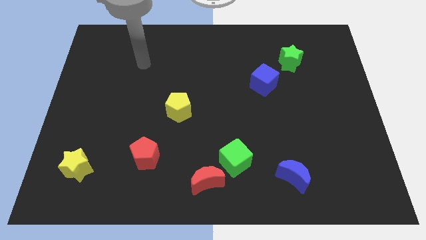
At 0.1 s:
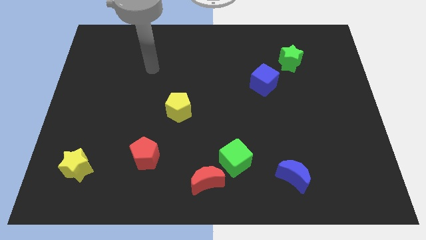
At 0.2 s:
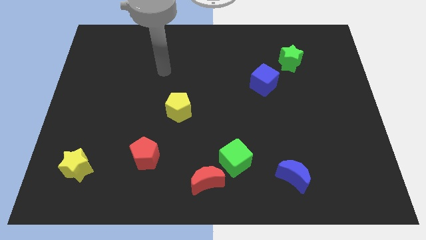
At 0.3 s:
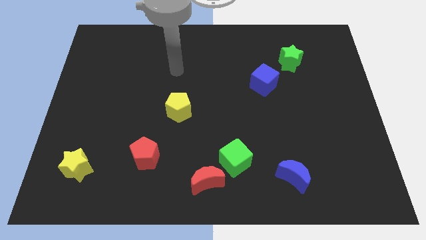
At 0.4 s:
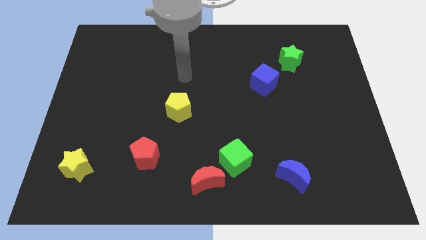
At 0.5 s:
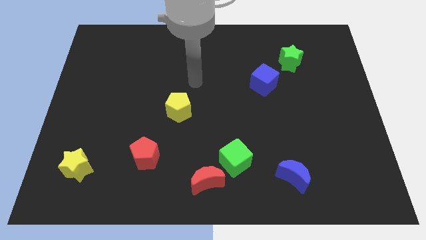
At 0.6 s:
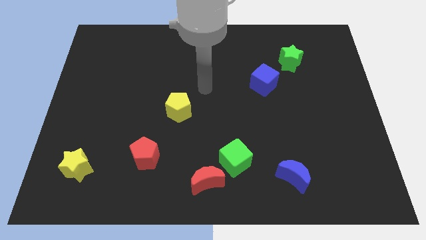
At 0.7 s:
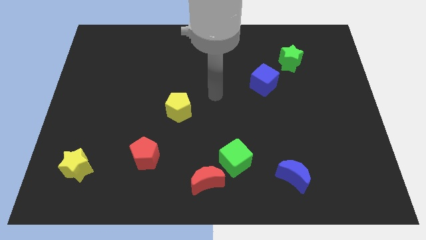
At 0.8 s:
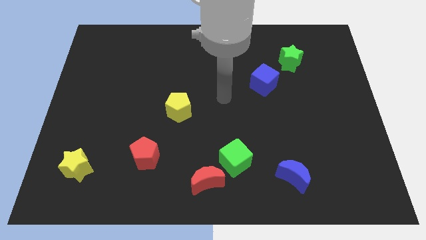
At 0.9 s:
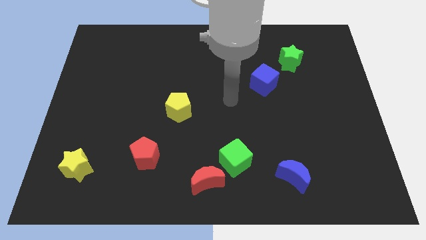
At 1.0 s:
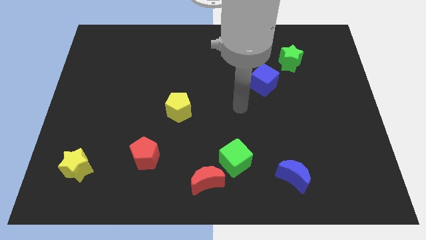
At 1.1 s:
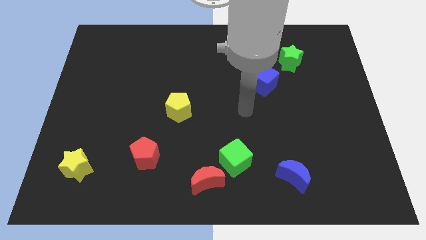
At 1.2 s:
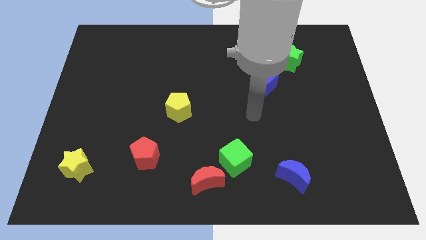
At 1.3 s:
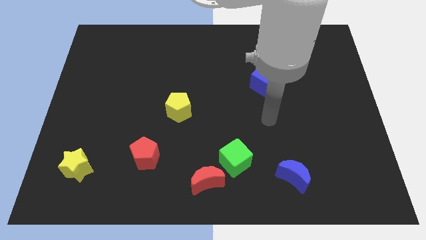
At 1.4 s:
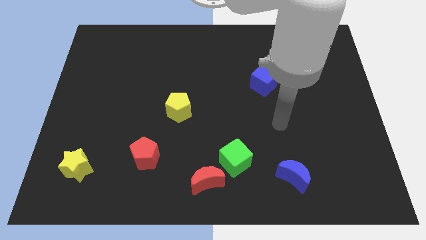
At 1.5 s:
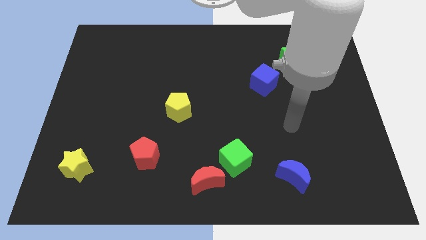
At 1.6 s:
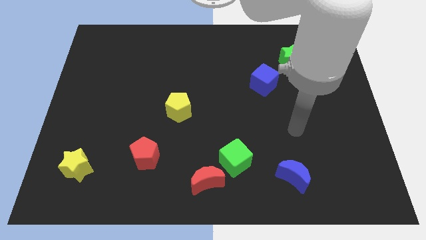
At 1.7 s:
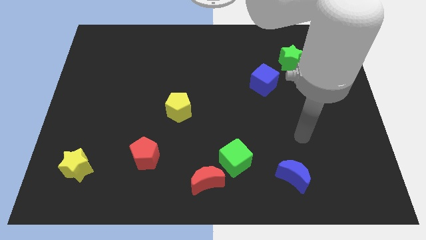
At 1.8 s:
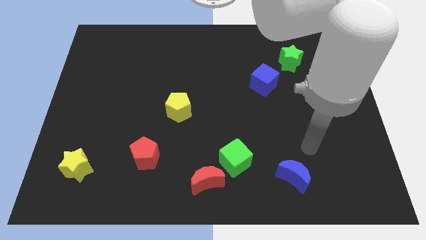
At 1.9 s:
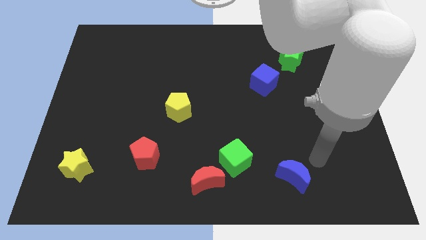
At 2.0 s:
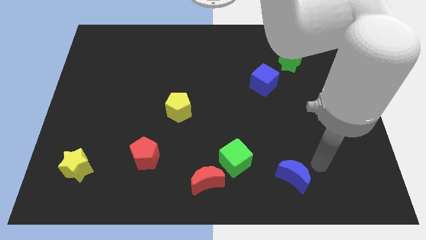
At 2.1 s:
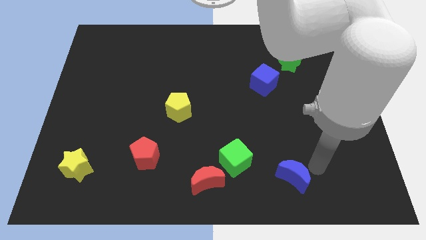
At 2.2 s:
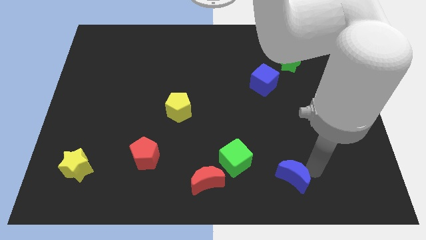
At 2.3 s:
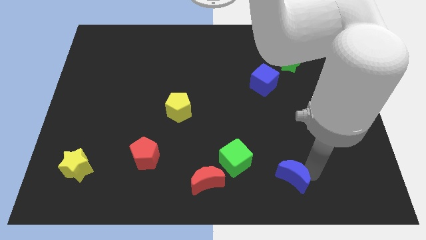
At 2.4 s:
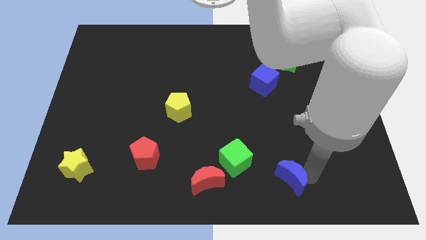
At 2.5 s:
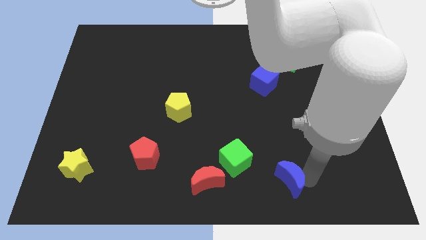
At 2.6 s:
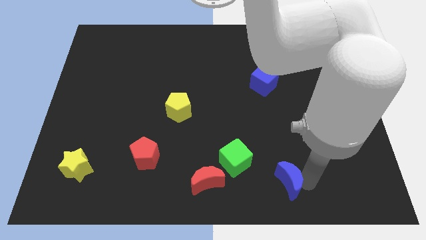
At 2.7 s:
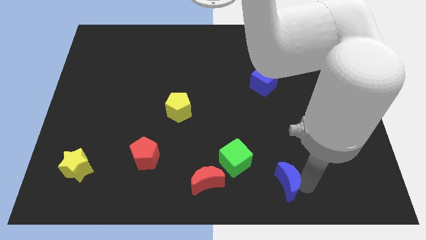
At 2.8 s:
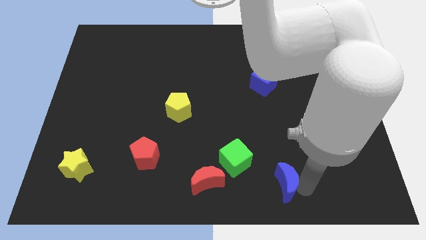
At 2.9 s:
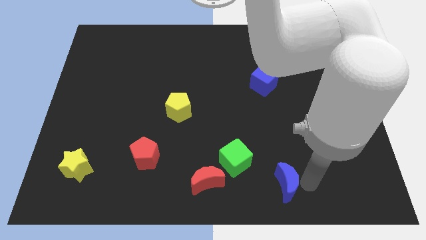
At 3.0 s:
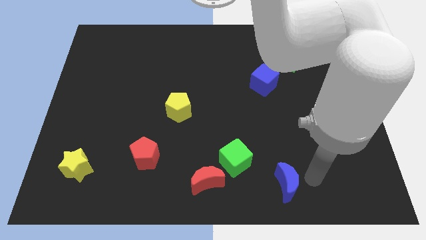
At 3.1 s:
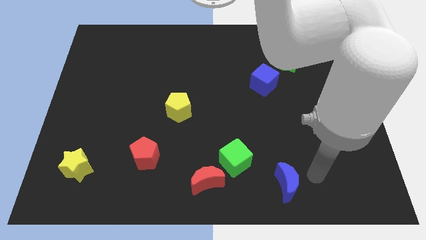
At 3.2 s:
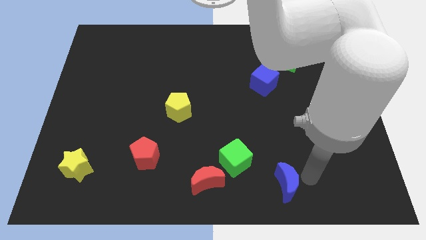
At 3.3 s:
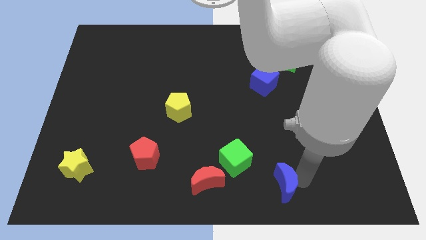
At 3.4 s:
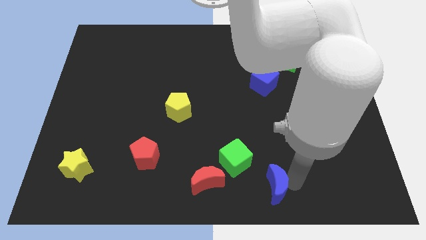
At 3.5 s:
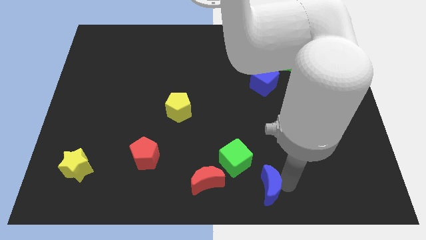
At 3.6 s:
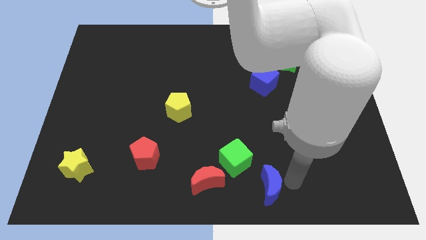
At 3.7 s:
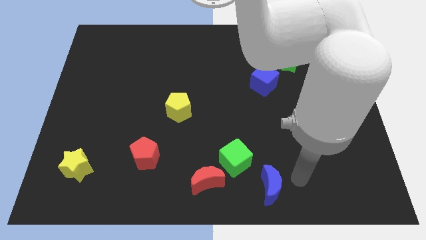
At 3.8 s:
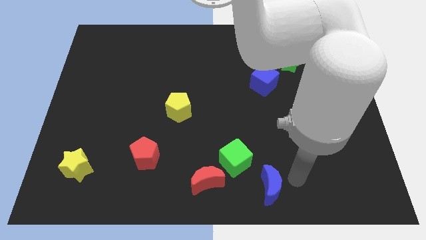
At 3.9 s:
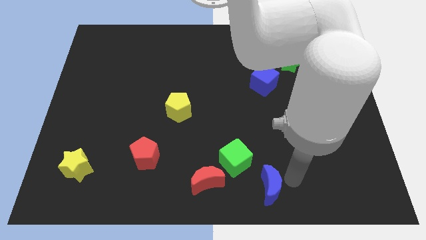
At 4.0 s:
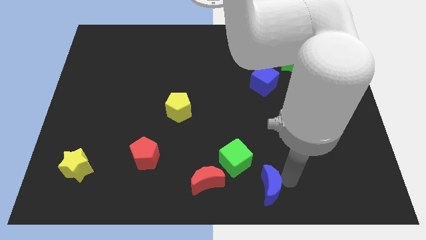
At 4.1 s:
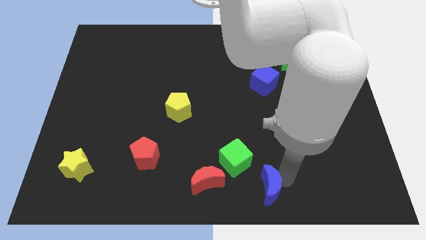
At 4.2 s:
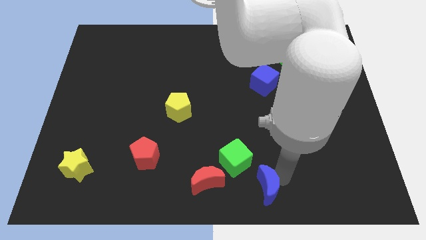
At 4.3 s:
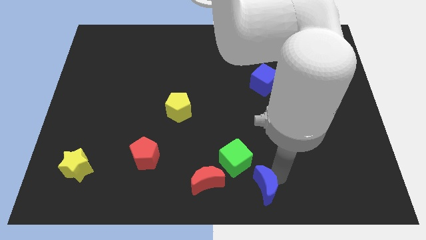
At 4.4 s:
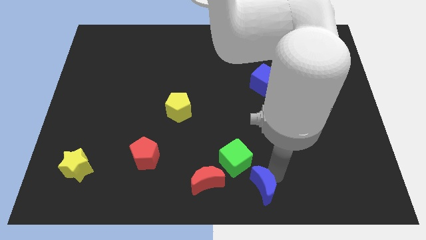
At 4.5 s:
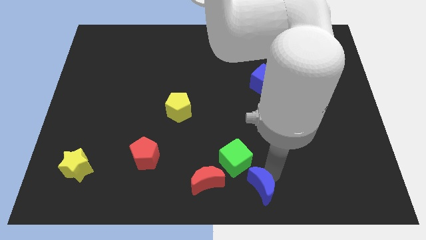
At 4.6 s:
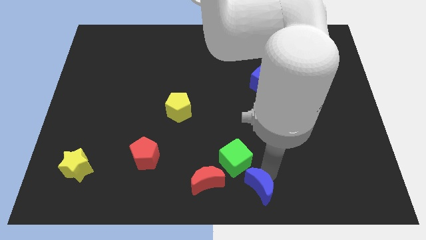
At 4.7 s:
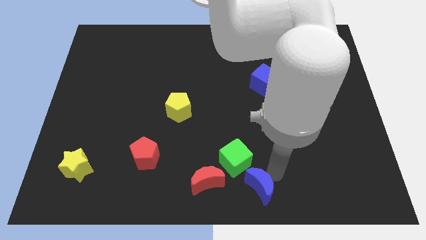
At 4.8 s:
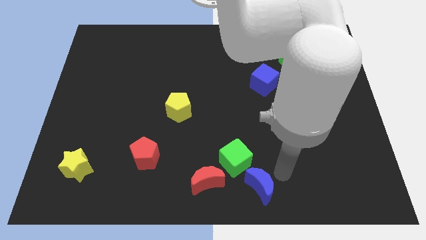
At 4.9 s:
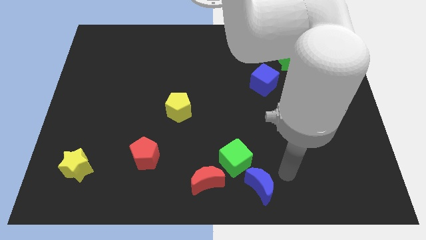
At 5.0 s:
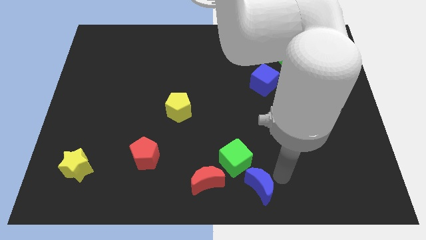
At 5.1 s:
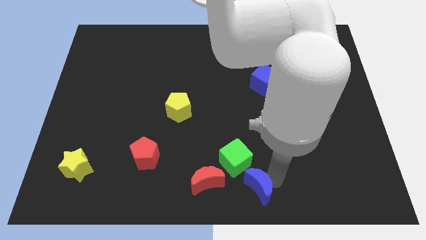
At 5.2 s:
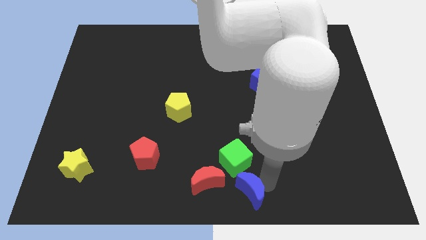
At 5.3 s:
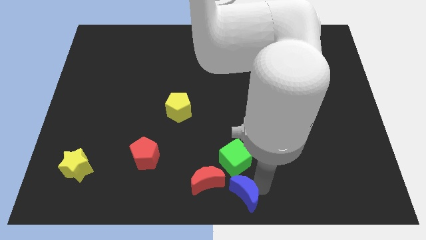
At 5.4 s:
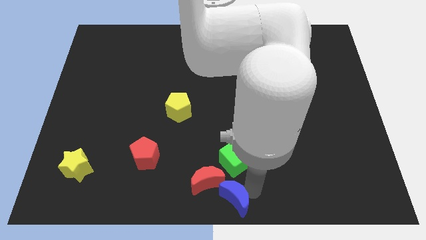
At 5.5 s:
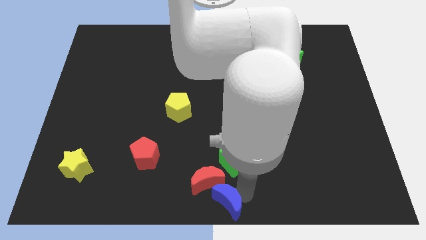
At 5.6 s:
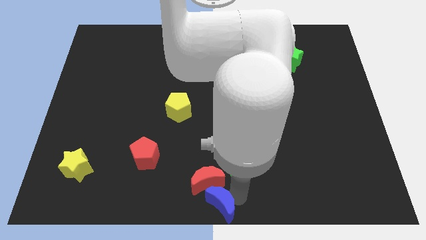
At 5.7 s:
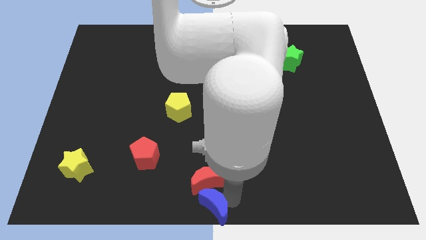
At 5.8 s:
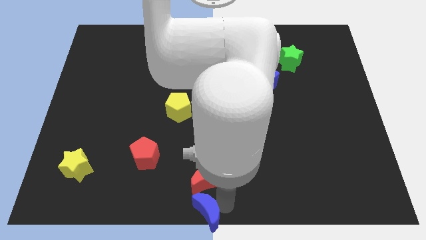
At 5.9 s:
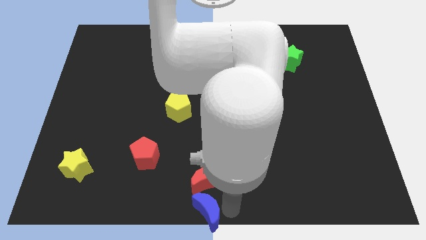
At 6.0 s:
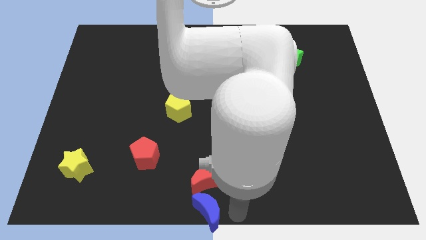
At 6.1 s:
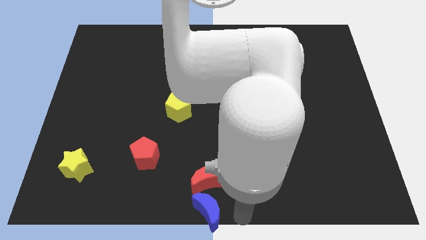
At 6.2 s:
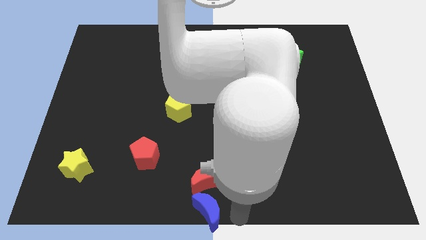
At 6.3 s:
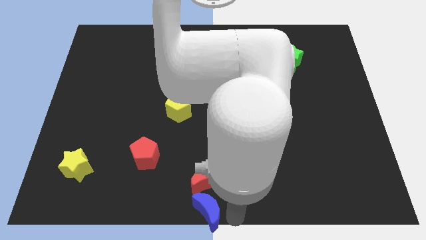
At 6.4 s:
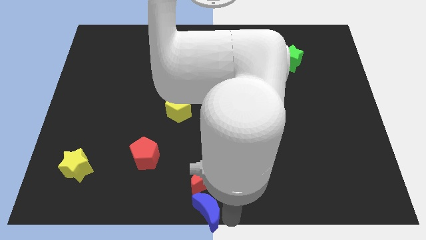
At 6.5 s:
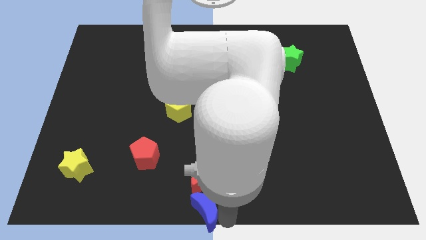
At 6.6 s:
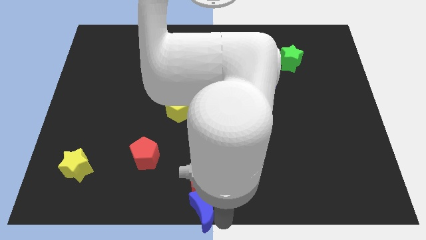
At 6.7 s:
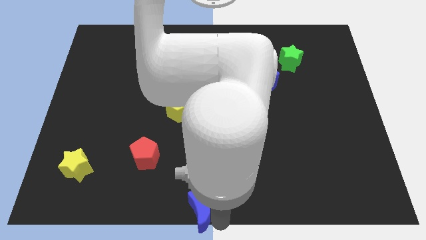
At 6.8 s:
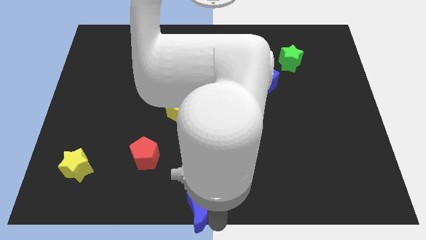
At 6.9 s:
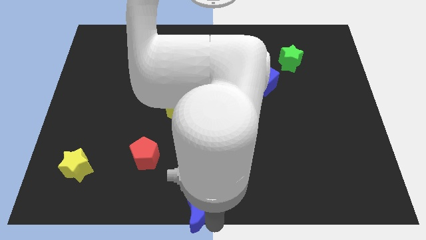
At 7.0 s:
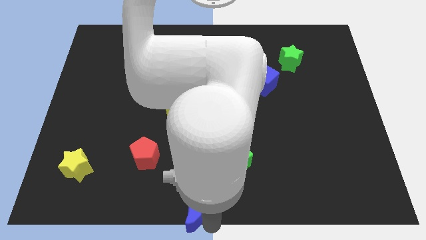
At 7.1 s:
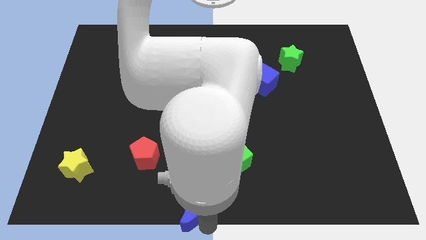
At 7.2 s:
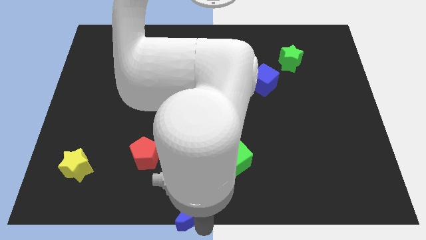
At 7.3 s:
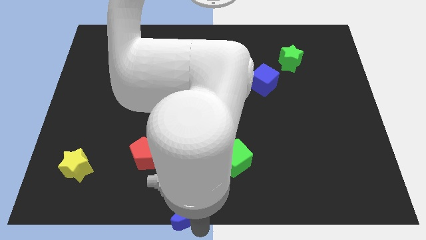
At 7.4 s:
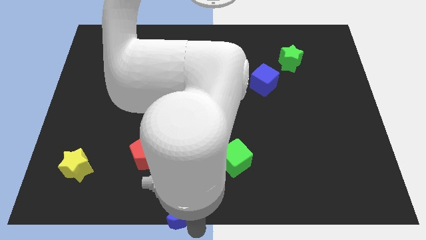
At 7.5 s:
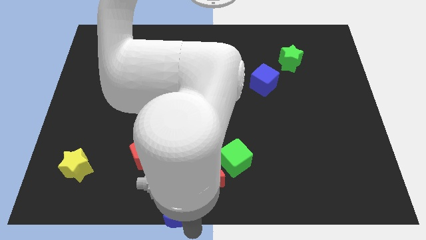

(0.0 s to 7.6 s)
push the blue moon to the left

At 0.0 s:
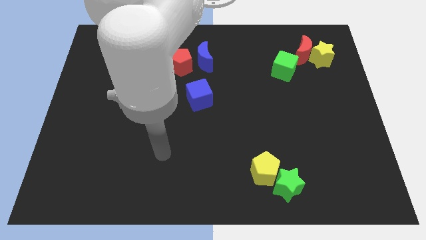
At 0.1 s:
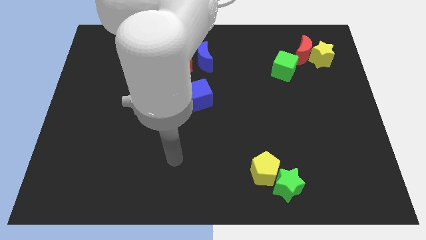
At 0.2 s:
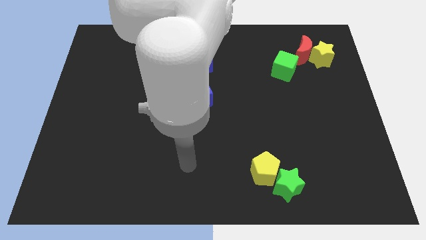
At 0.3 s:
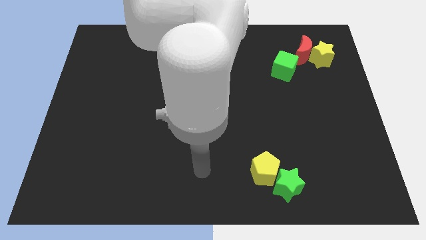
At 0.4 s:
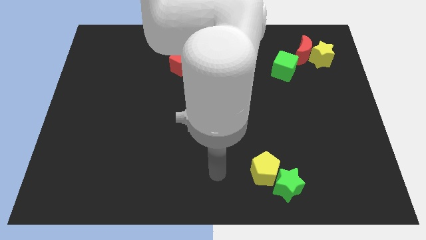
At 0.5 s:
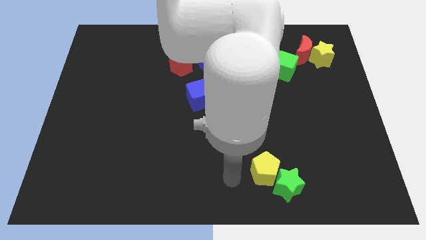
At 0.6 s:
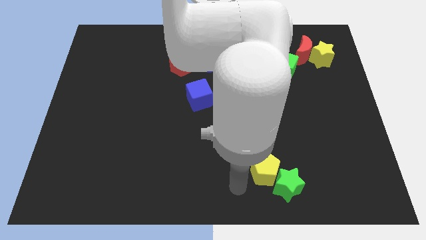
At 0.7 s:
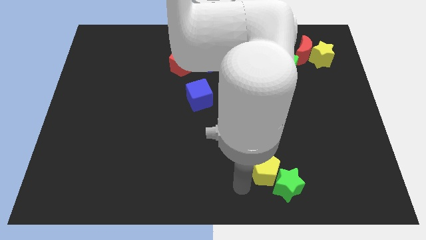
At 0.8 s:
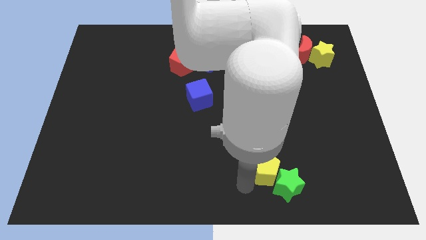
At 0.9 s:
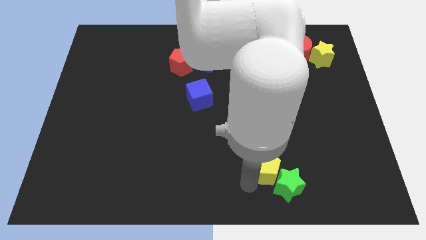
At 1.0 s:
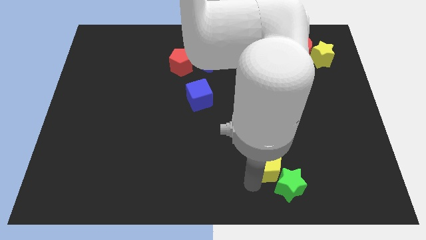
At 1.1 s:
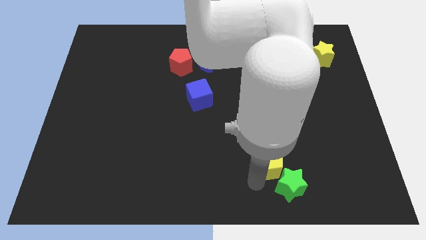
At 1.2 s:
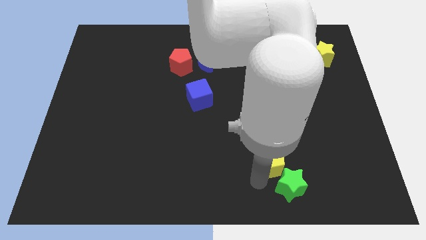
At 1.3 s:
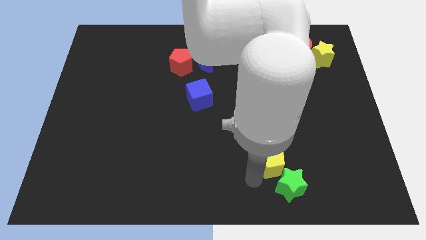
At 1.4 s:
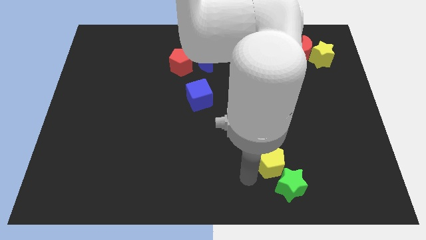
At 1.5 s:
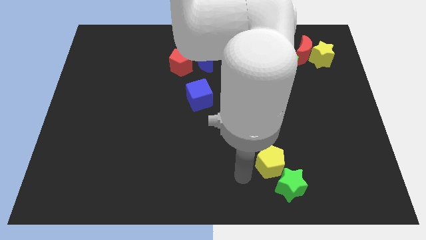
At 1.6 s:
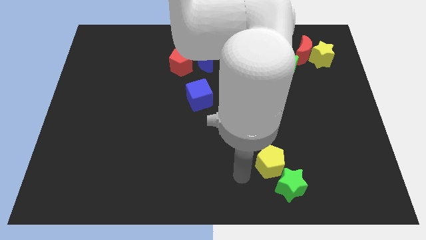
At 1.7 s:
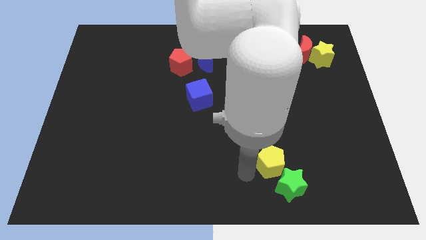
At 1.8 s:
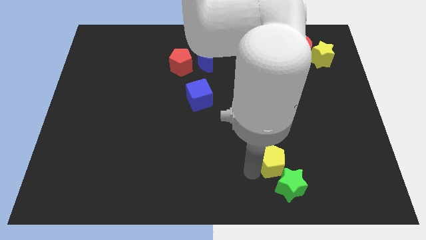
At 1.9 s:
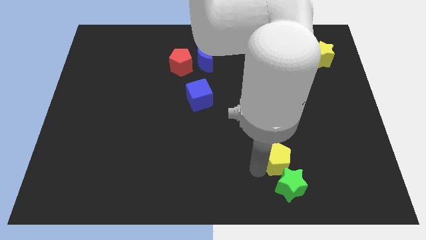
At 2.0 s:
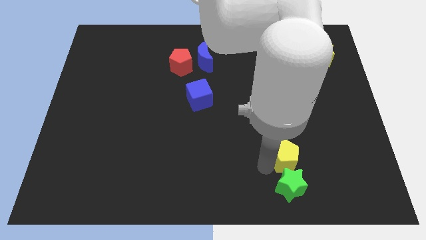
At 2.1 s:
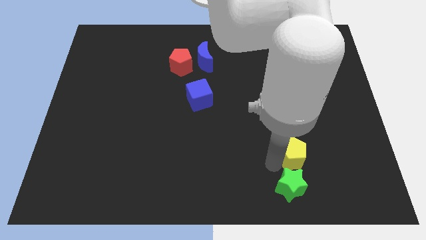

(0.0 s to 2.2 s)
move the yellow pentagon diagonally upwards and right a little
